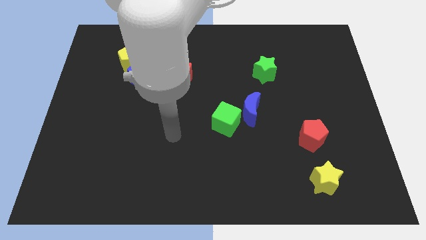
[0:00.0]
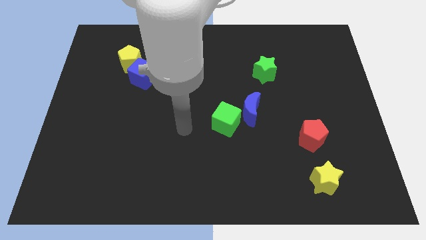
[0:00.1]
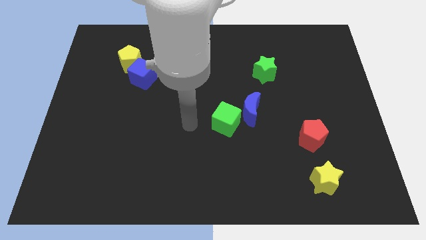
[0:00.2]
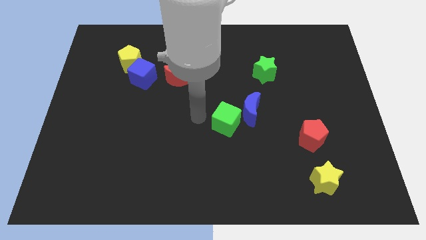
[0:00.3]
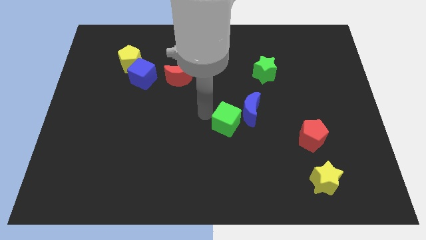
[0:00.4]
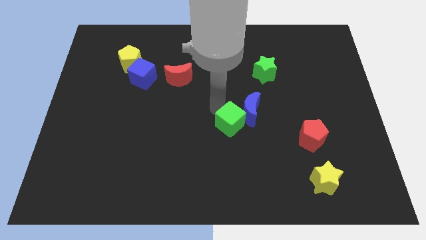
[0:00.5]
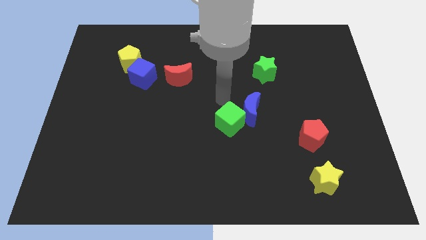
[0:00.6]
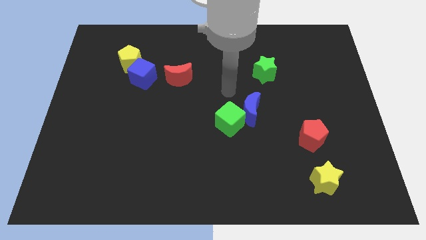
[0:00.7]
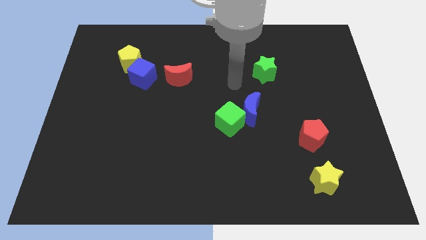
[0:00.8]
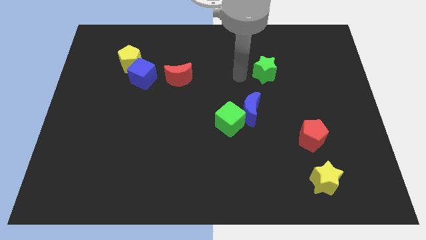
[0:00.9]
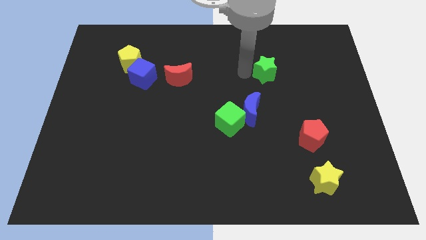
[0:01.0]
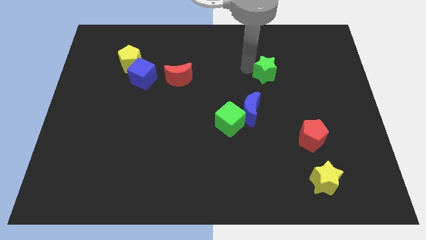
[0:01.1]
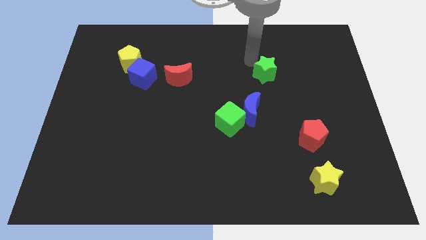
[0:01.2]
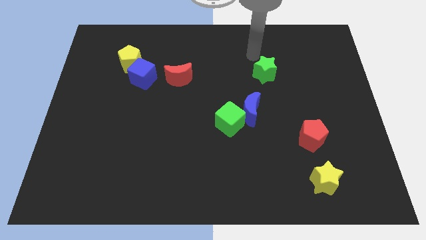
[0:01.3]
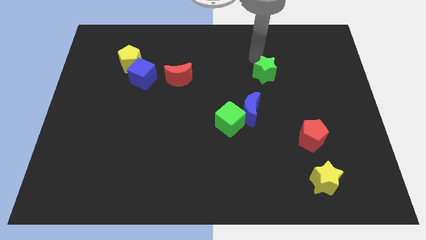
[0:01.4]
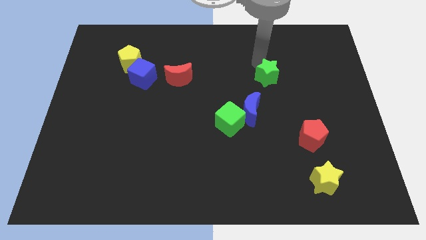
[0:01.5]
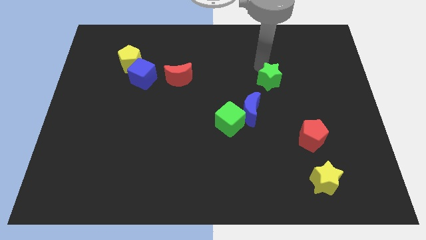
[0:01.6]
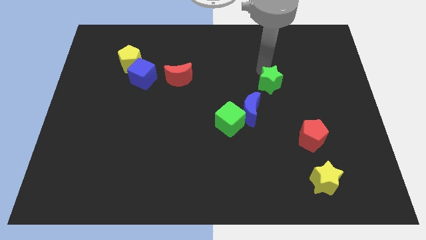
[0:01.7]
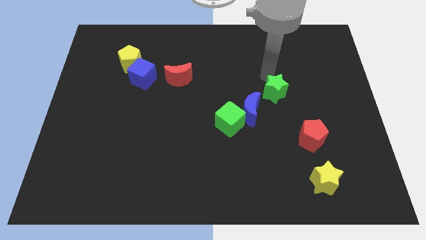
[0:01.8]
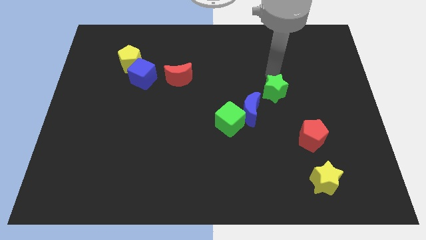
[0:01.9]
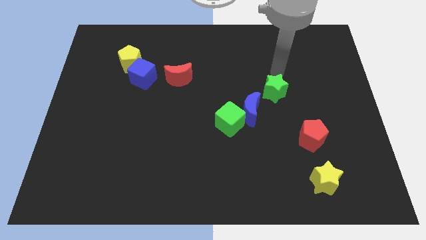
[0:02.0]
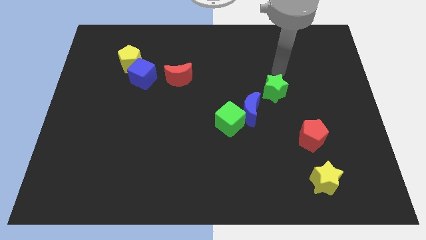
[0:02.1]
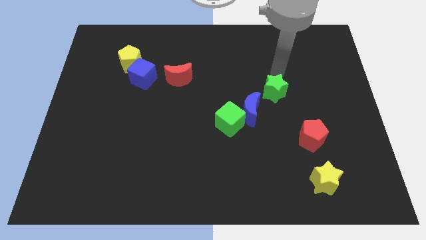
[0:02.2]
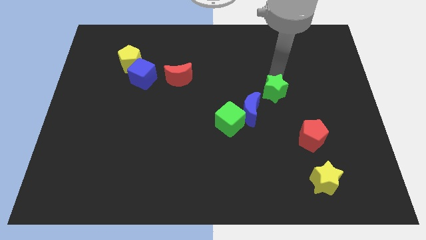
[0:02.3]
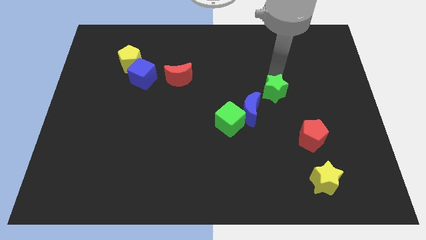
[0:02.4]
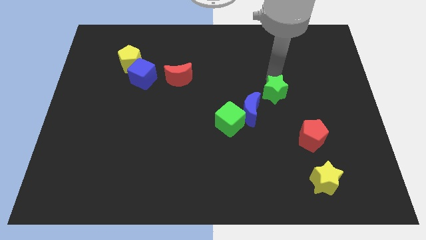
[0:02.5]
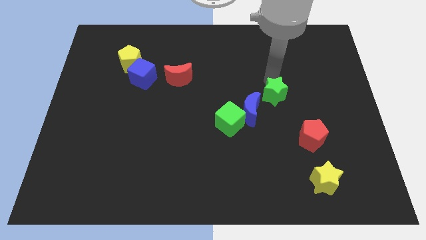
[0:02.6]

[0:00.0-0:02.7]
push the green star a bit downwards

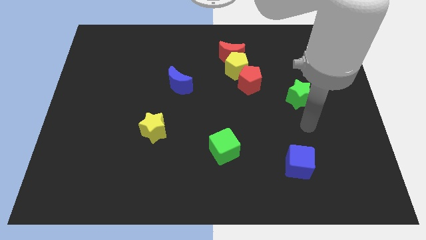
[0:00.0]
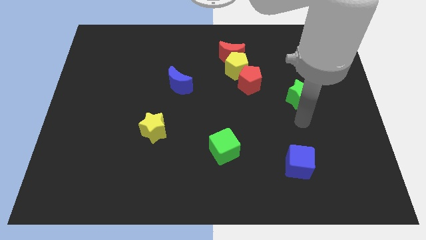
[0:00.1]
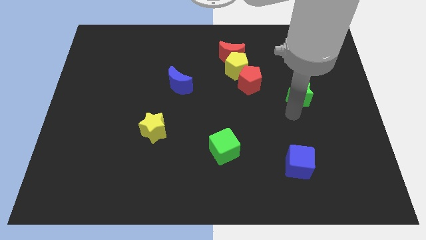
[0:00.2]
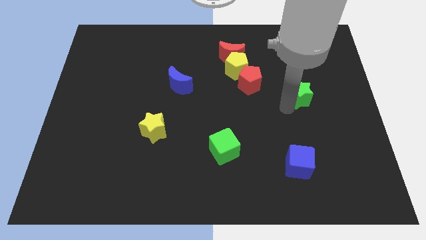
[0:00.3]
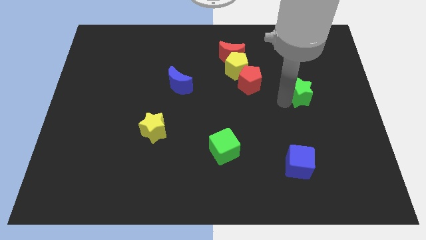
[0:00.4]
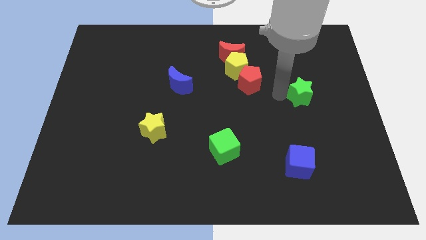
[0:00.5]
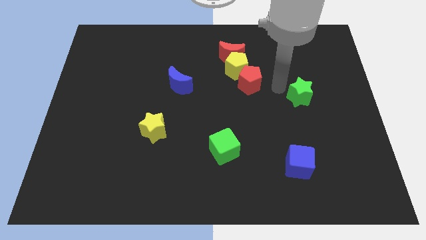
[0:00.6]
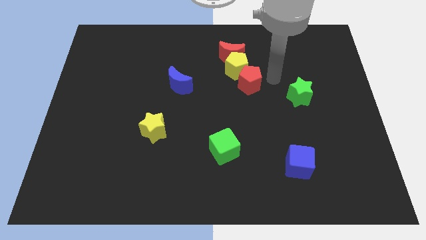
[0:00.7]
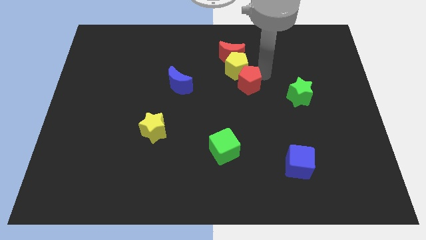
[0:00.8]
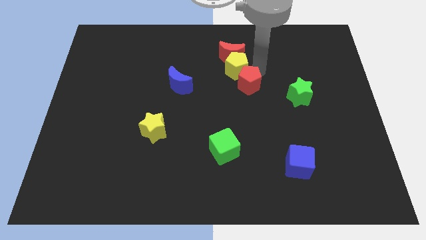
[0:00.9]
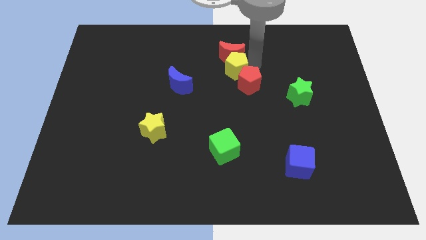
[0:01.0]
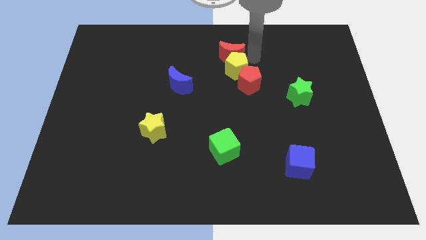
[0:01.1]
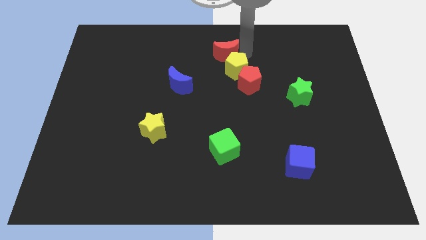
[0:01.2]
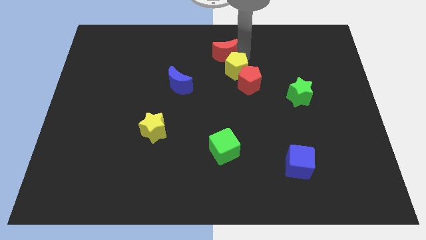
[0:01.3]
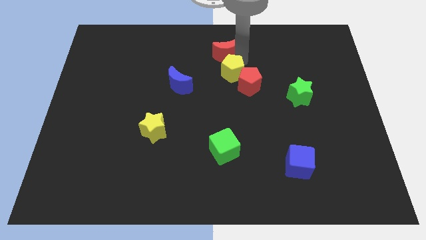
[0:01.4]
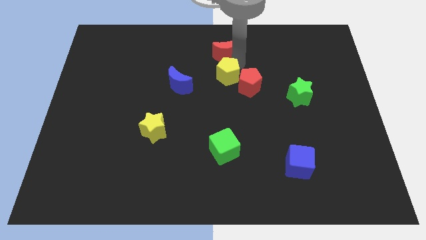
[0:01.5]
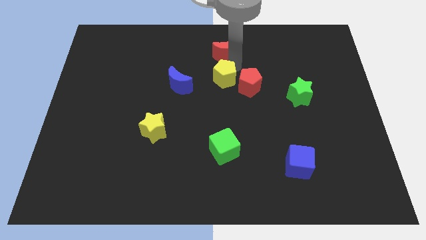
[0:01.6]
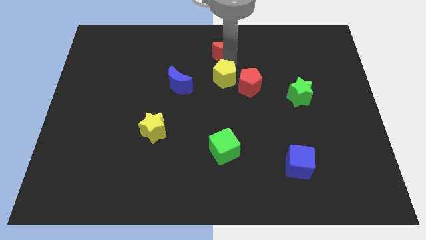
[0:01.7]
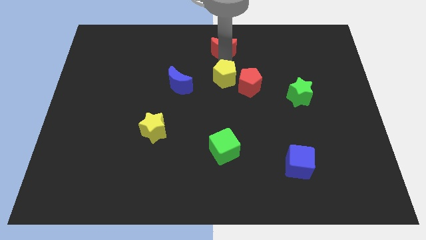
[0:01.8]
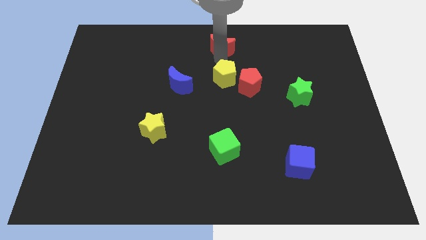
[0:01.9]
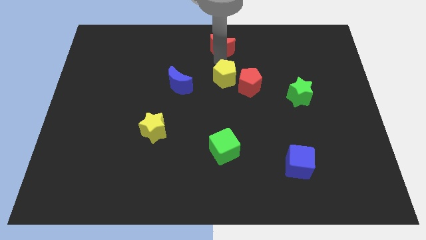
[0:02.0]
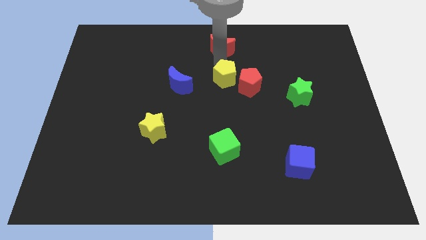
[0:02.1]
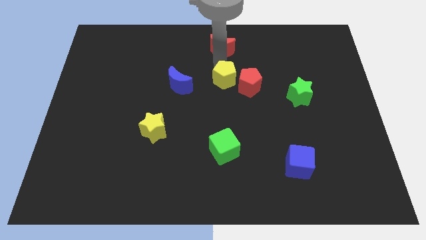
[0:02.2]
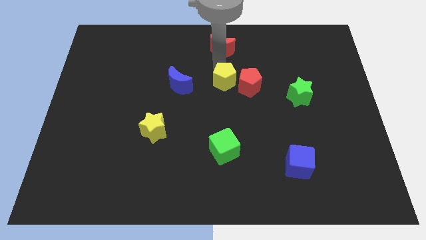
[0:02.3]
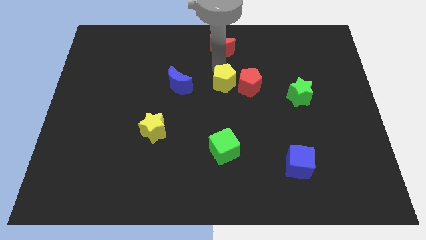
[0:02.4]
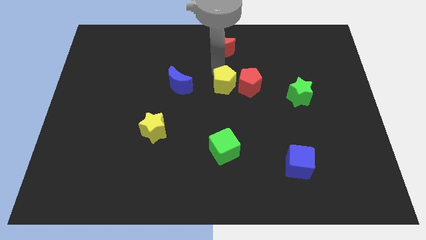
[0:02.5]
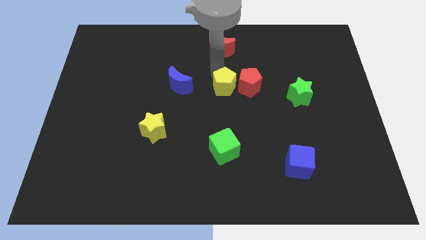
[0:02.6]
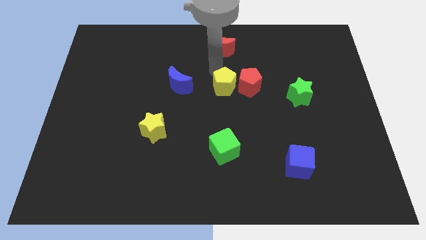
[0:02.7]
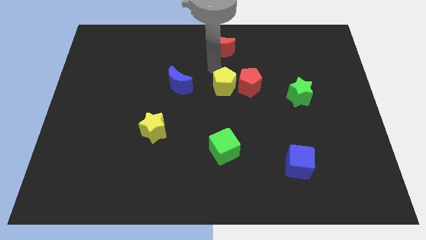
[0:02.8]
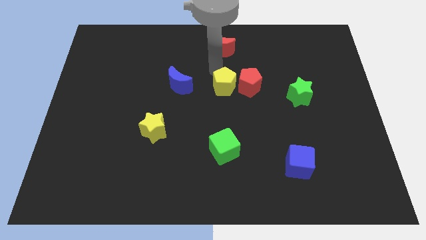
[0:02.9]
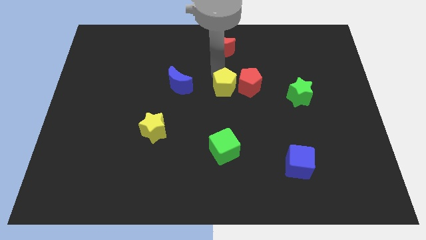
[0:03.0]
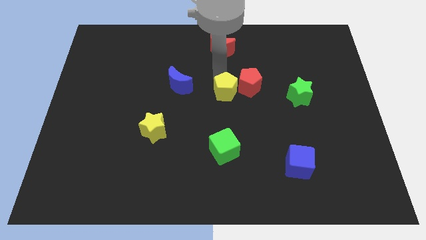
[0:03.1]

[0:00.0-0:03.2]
move the yellow pentagon slightly downwards

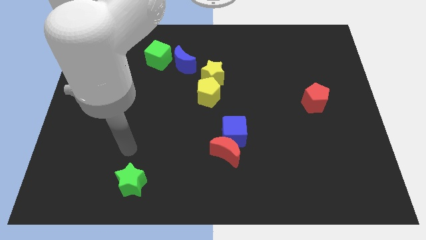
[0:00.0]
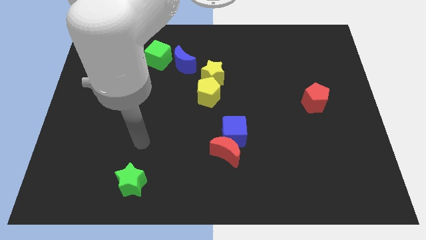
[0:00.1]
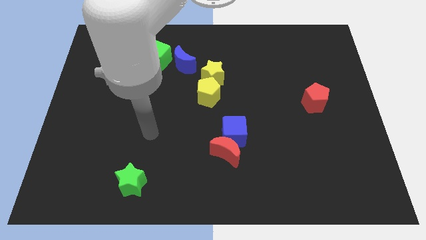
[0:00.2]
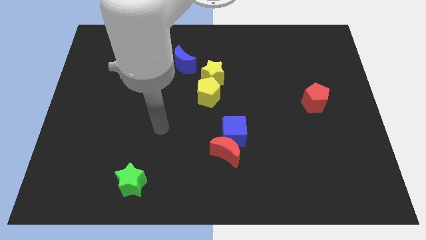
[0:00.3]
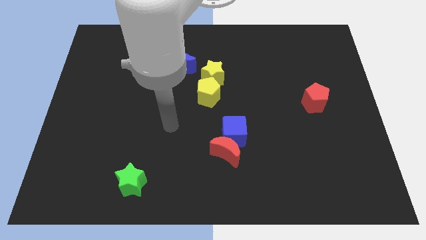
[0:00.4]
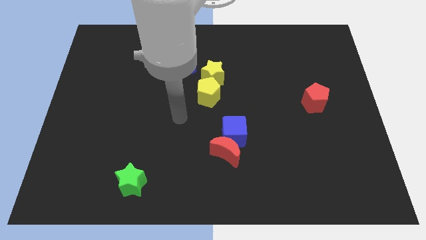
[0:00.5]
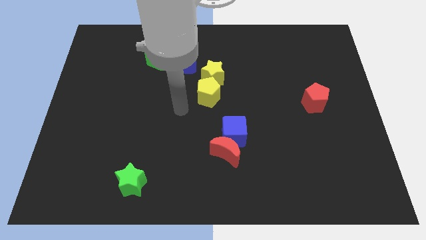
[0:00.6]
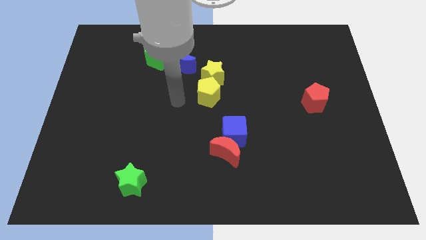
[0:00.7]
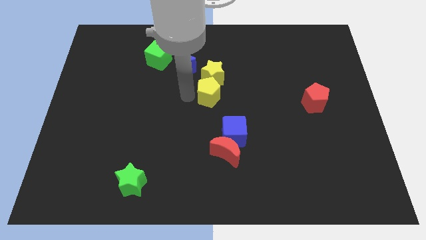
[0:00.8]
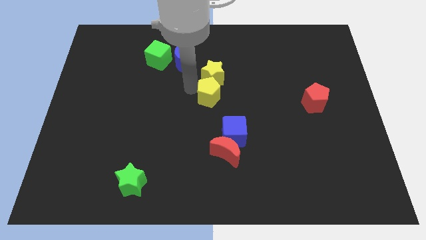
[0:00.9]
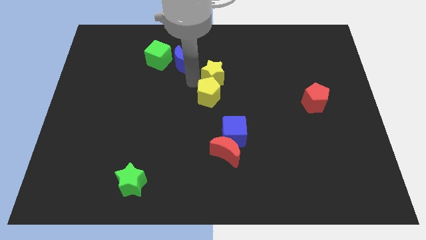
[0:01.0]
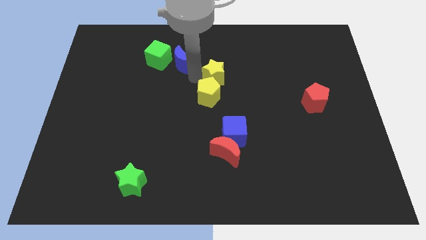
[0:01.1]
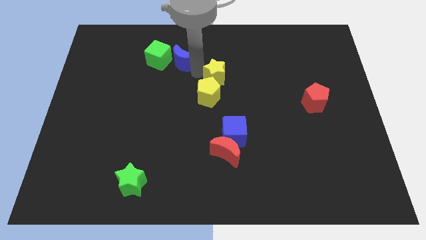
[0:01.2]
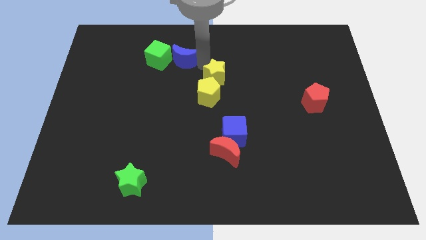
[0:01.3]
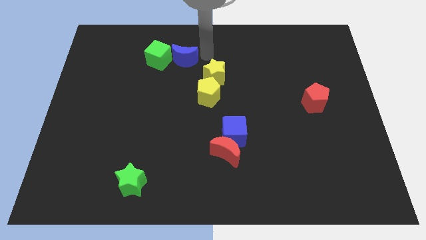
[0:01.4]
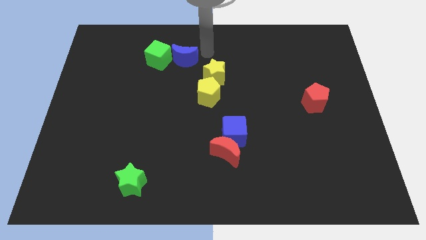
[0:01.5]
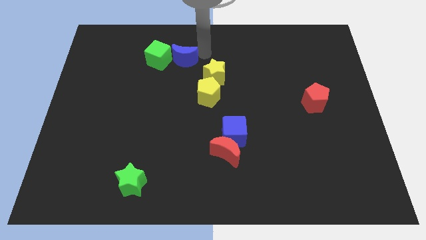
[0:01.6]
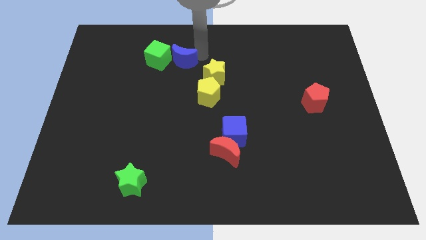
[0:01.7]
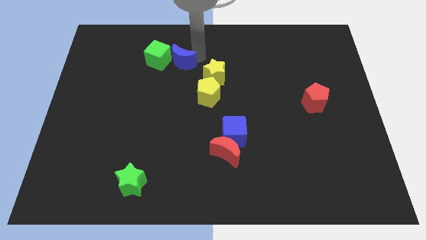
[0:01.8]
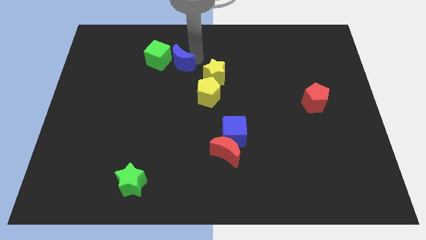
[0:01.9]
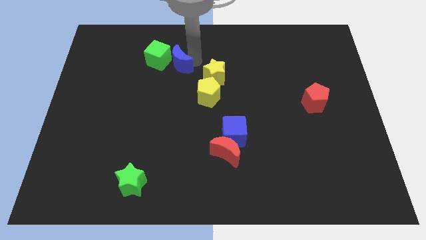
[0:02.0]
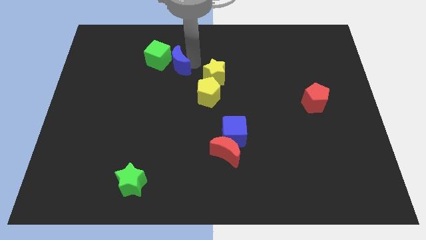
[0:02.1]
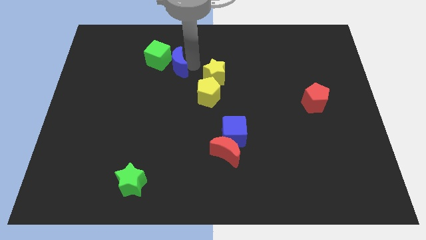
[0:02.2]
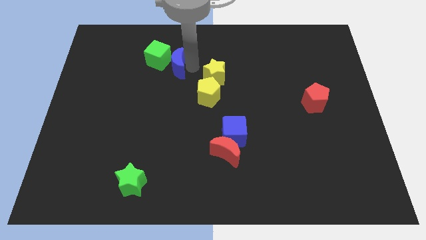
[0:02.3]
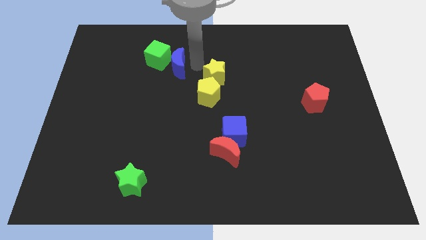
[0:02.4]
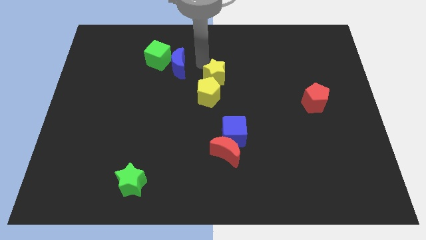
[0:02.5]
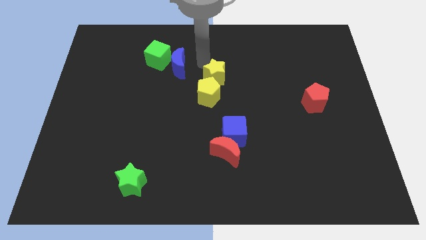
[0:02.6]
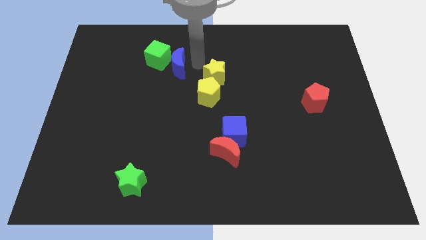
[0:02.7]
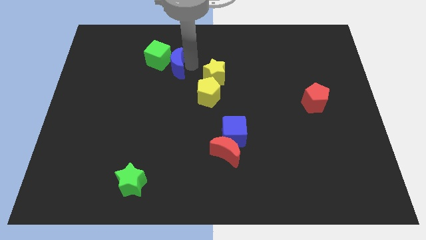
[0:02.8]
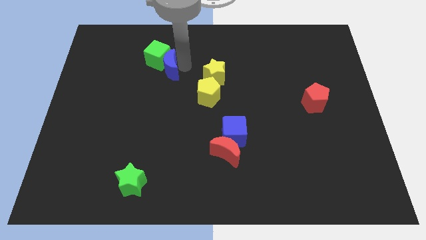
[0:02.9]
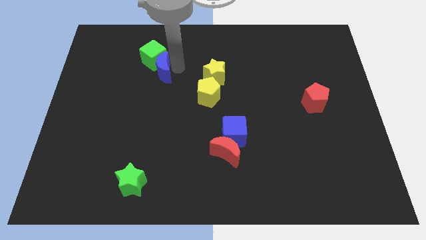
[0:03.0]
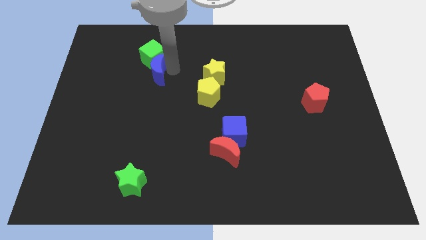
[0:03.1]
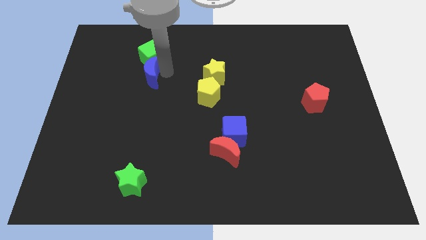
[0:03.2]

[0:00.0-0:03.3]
slightly push the blue moon left
